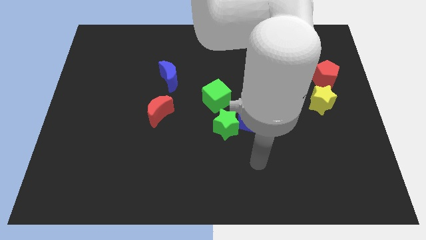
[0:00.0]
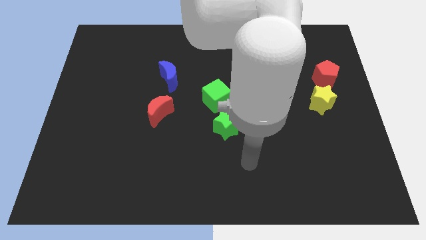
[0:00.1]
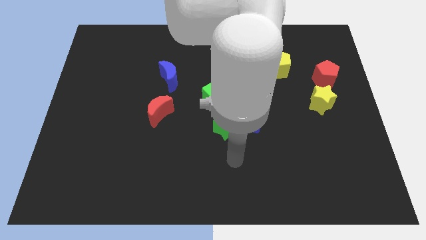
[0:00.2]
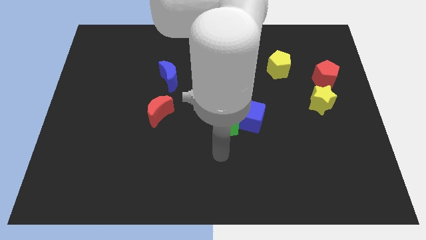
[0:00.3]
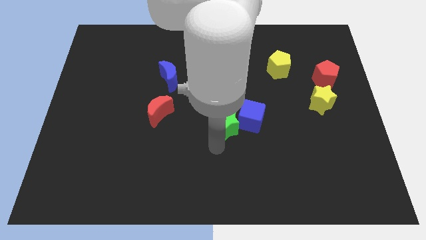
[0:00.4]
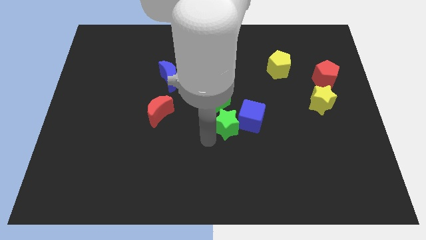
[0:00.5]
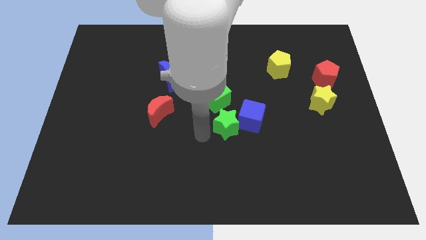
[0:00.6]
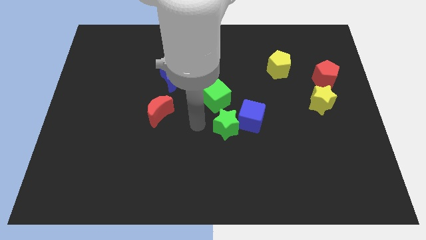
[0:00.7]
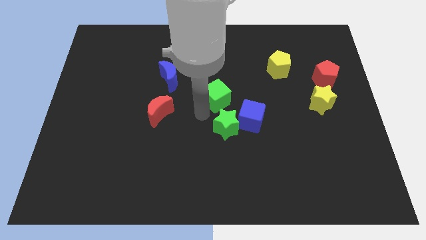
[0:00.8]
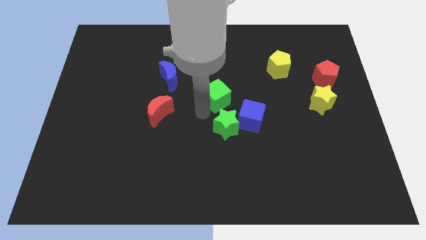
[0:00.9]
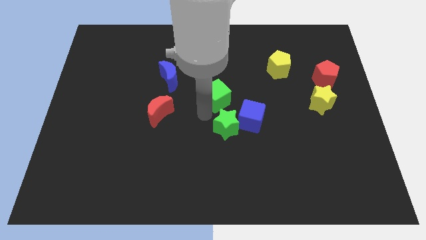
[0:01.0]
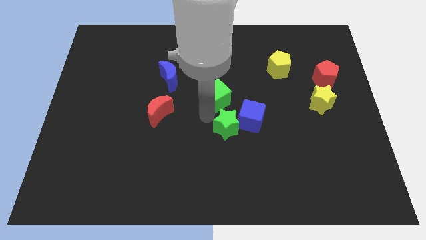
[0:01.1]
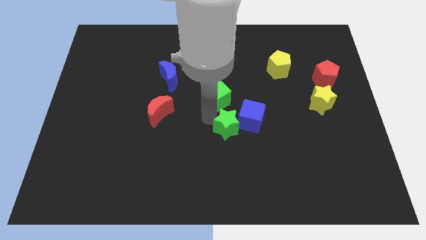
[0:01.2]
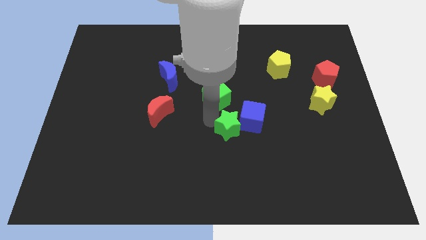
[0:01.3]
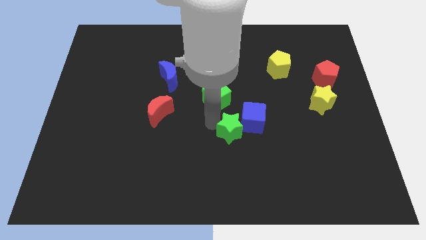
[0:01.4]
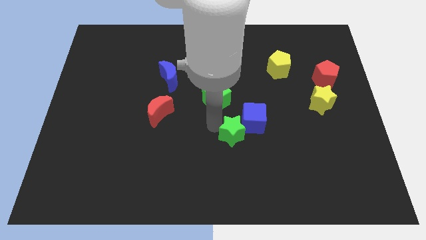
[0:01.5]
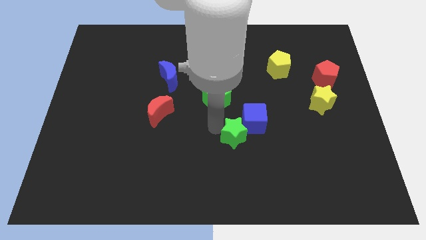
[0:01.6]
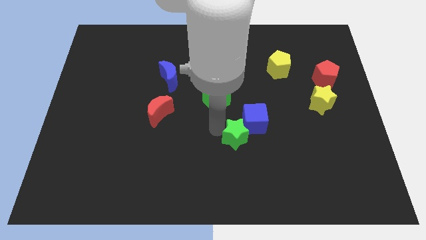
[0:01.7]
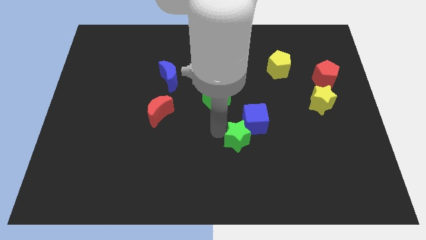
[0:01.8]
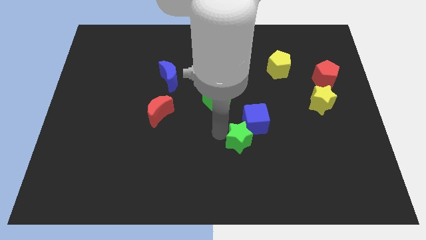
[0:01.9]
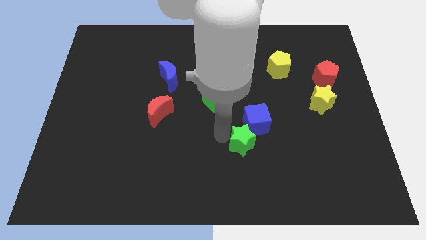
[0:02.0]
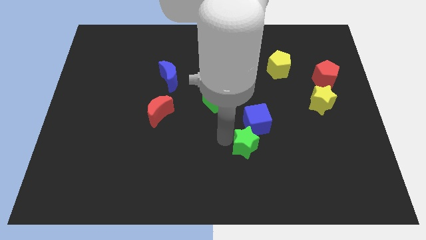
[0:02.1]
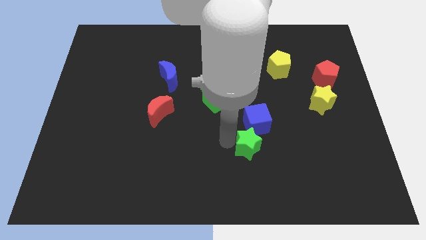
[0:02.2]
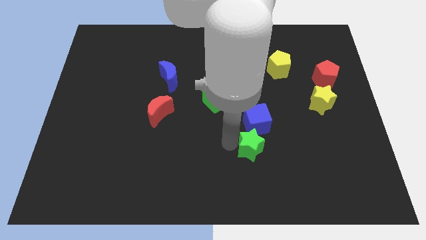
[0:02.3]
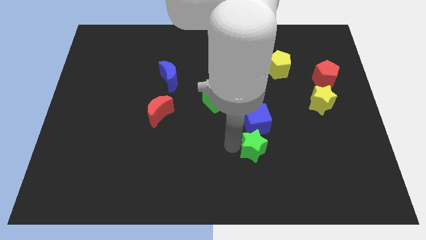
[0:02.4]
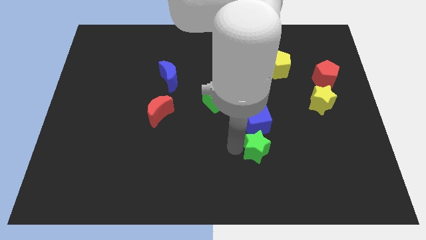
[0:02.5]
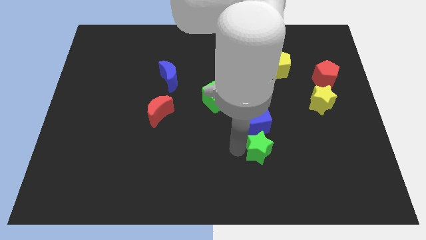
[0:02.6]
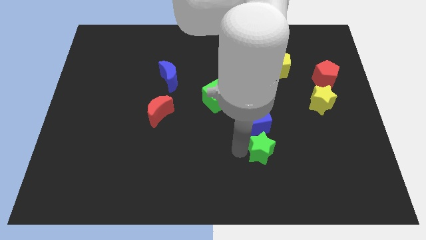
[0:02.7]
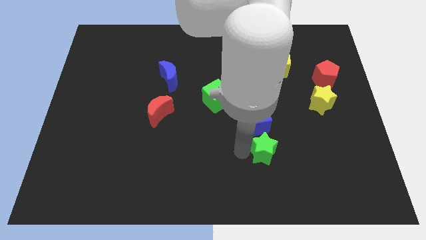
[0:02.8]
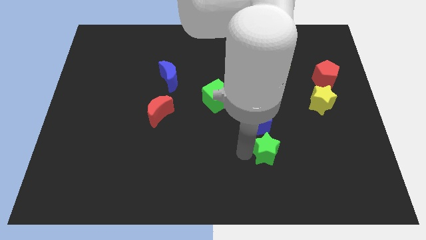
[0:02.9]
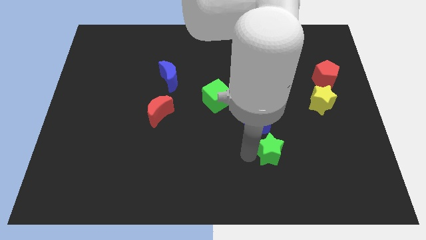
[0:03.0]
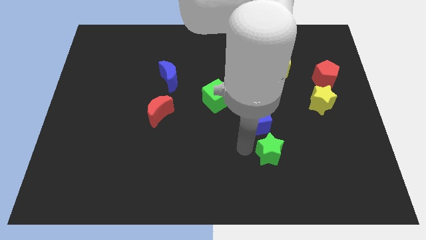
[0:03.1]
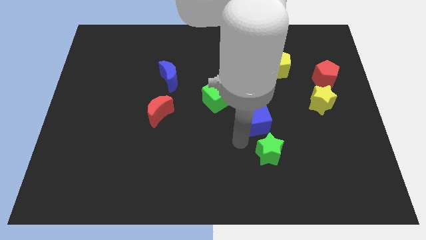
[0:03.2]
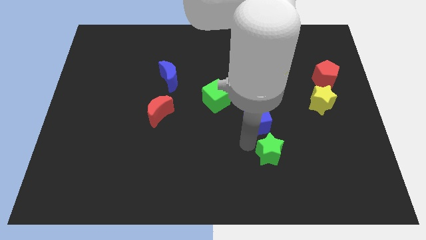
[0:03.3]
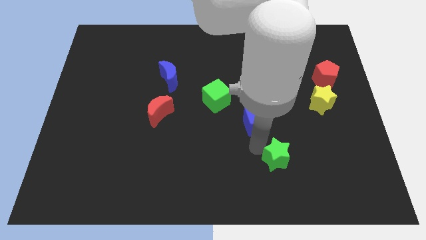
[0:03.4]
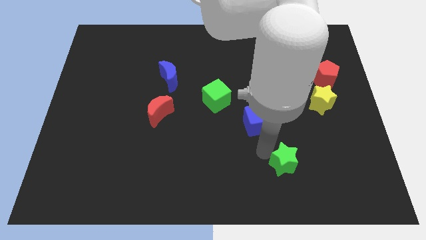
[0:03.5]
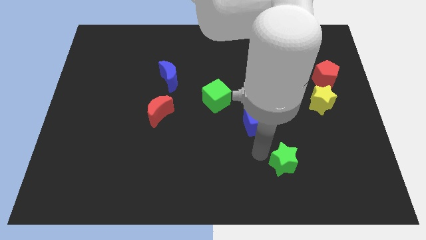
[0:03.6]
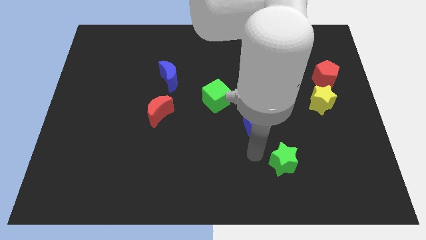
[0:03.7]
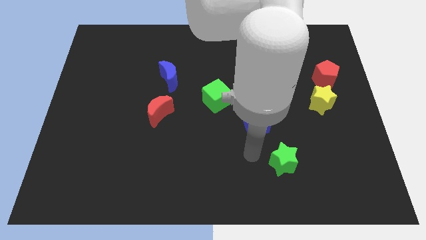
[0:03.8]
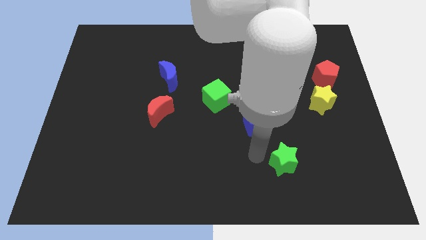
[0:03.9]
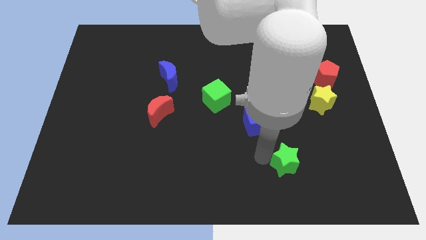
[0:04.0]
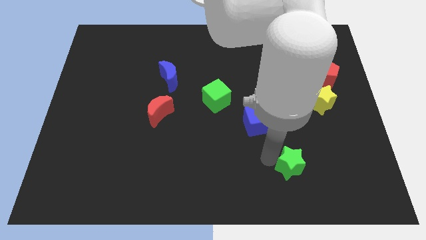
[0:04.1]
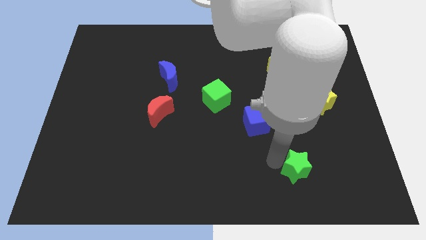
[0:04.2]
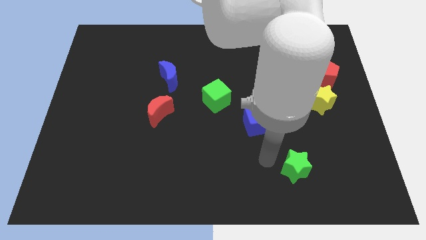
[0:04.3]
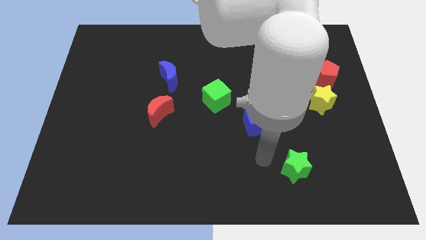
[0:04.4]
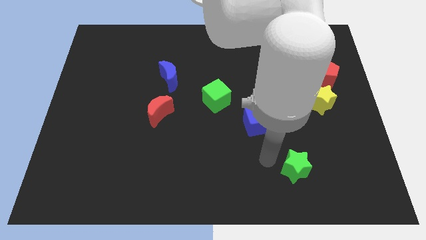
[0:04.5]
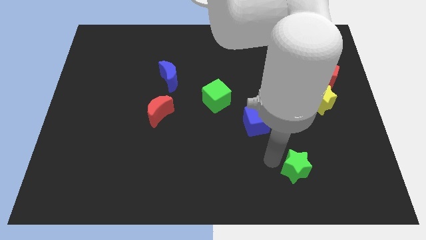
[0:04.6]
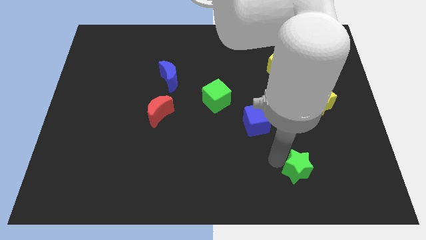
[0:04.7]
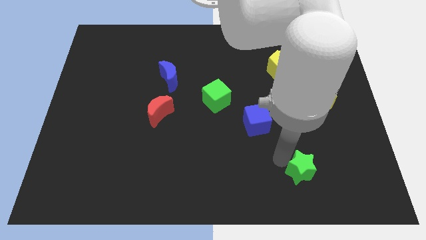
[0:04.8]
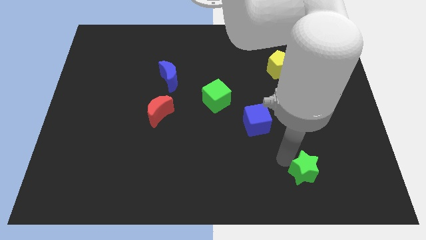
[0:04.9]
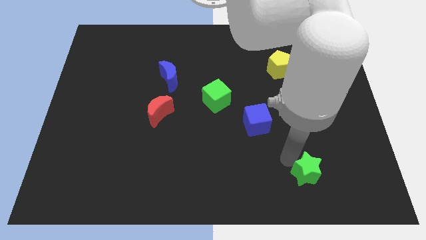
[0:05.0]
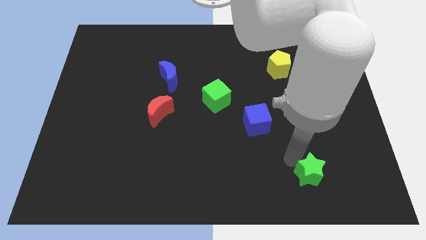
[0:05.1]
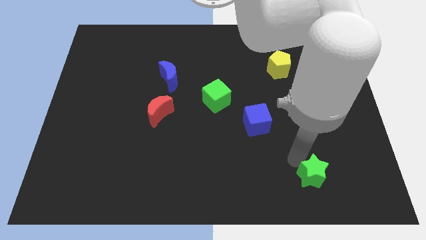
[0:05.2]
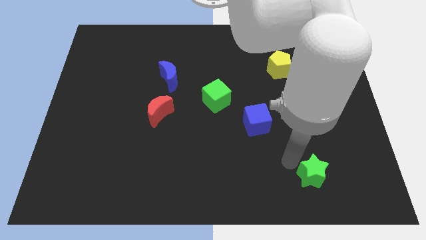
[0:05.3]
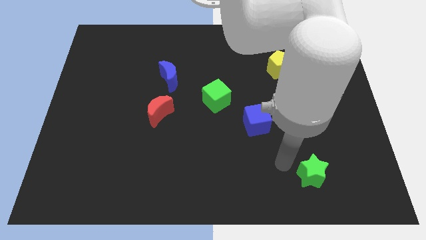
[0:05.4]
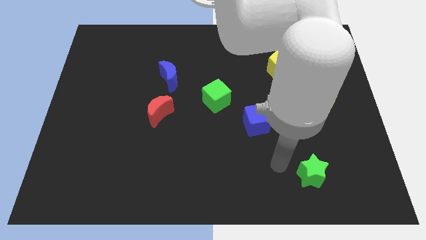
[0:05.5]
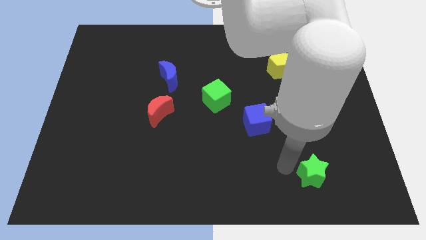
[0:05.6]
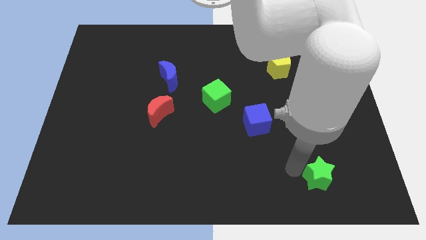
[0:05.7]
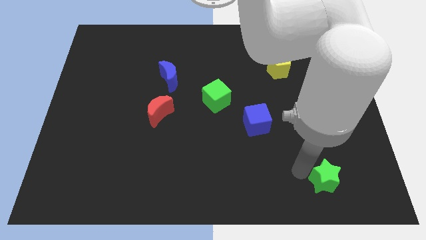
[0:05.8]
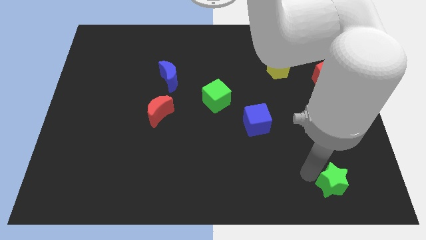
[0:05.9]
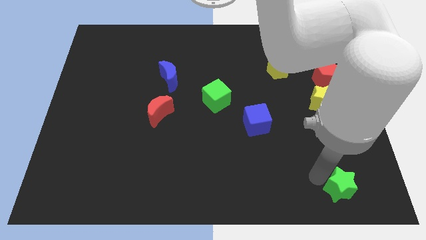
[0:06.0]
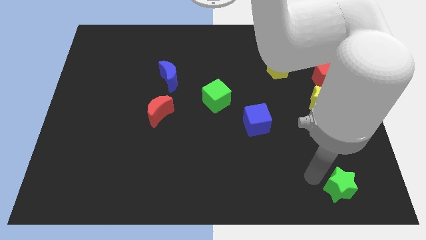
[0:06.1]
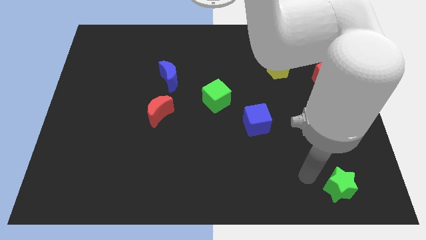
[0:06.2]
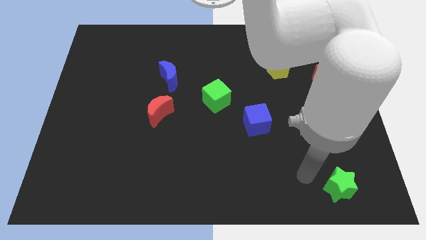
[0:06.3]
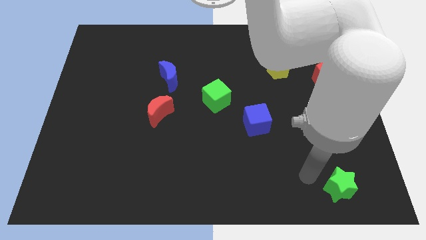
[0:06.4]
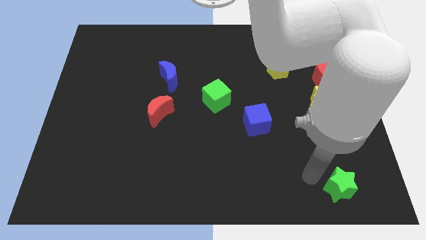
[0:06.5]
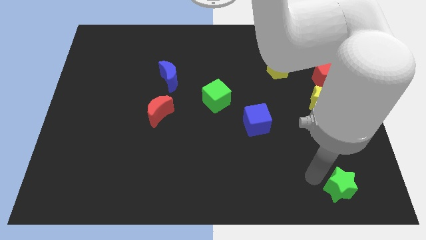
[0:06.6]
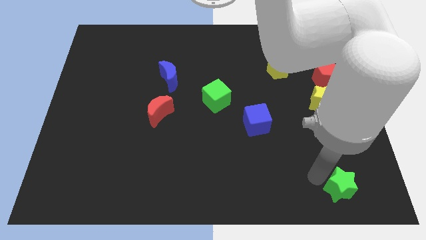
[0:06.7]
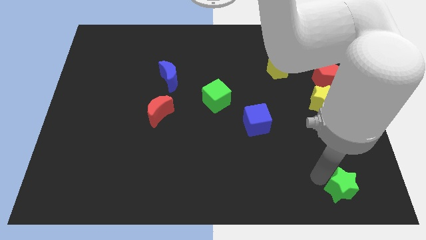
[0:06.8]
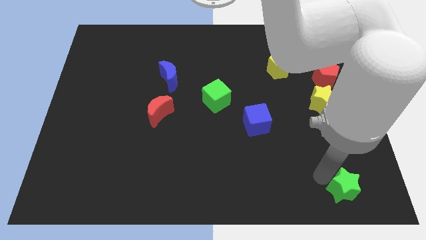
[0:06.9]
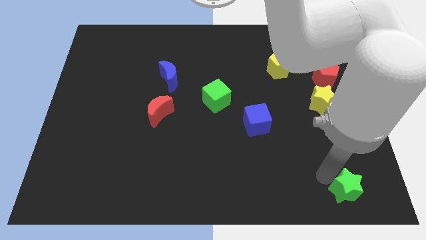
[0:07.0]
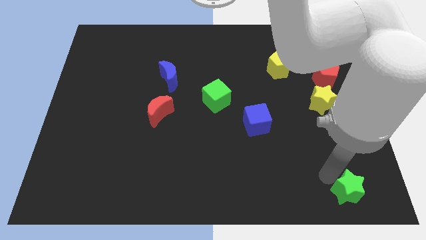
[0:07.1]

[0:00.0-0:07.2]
push the green star to the bottom right corner
